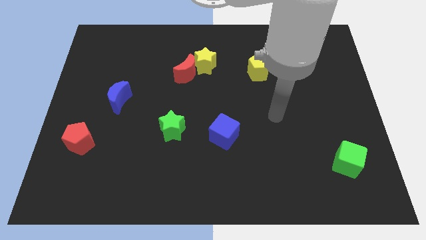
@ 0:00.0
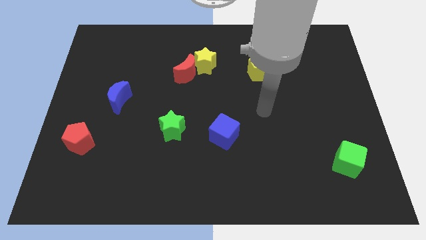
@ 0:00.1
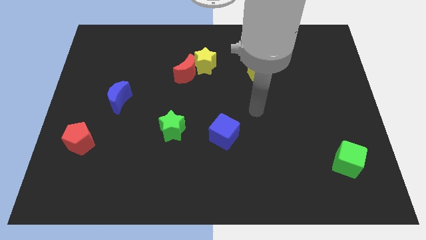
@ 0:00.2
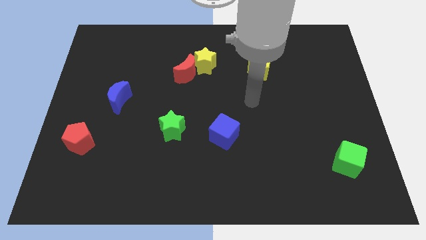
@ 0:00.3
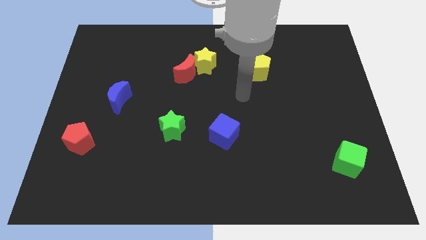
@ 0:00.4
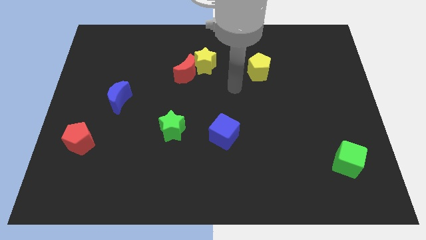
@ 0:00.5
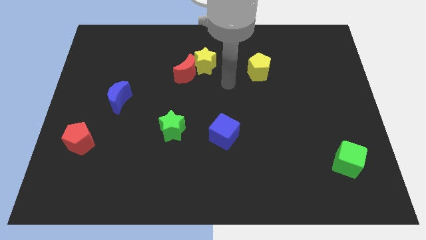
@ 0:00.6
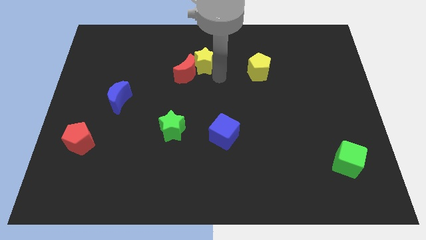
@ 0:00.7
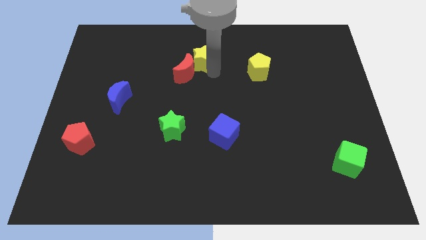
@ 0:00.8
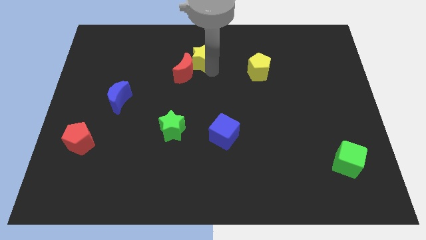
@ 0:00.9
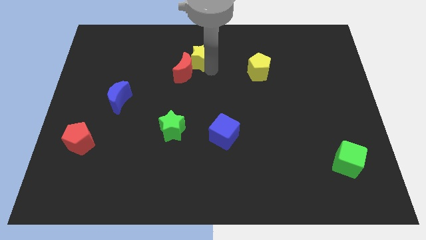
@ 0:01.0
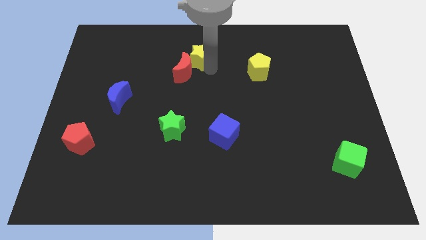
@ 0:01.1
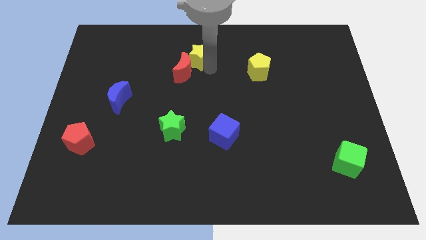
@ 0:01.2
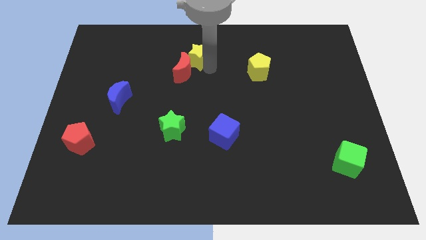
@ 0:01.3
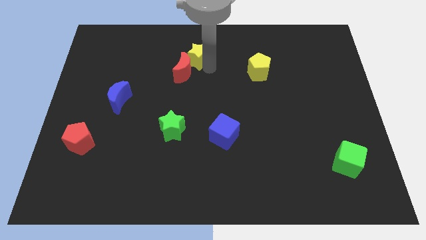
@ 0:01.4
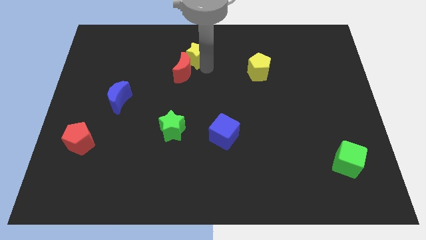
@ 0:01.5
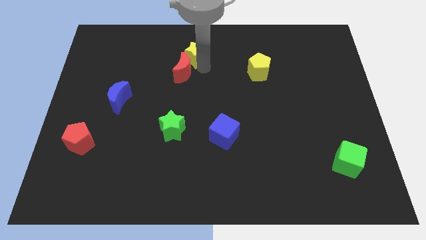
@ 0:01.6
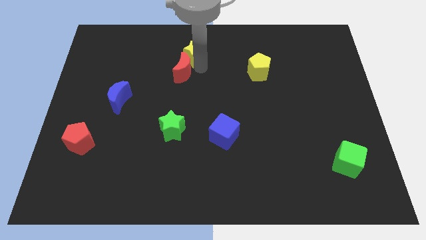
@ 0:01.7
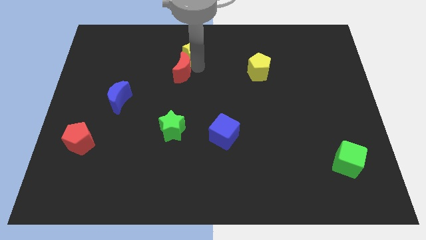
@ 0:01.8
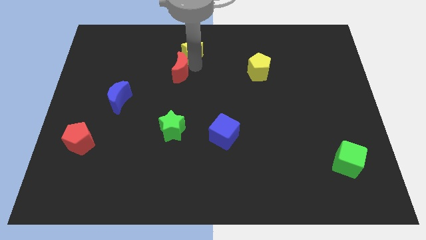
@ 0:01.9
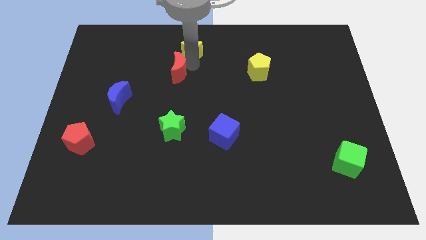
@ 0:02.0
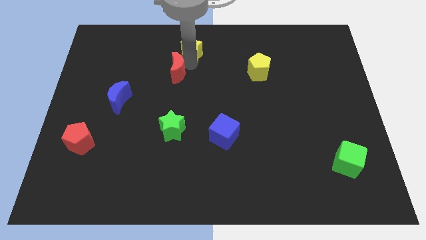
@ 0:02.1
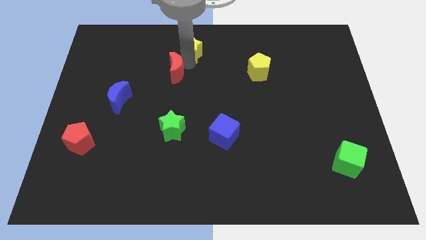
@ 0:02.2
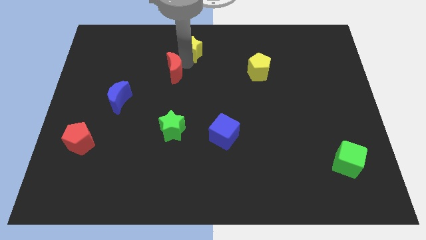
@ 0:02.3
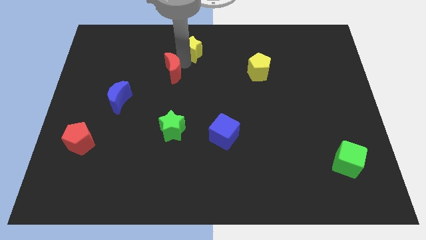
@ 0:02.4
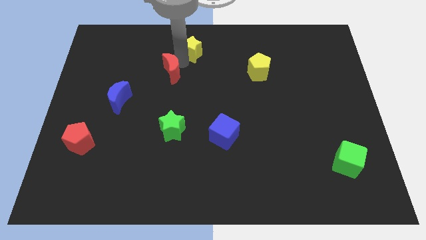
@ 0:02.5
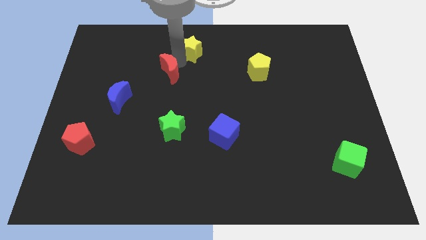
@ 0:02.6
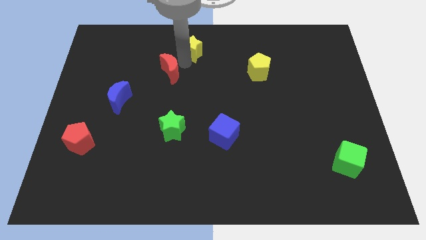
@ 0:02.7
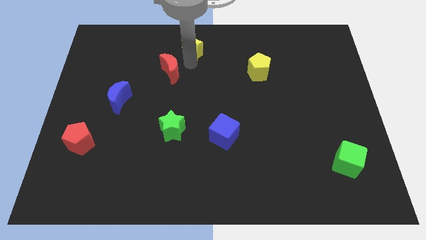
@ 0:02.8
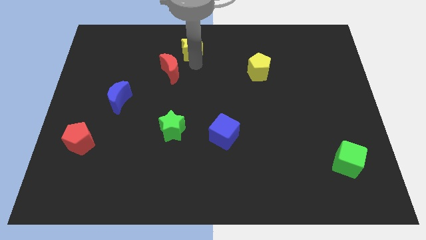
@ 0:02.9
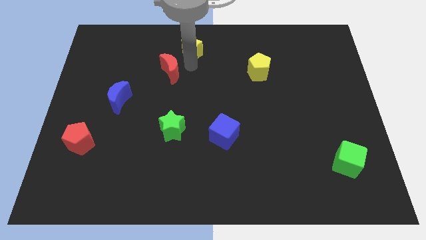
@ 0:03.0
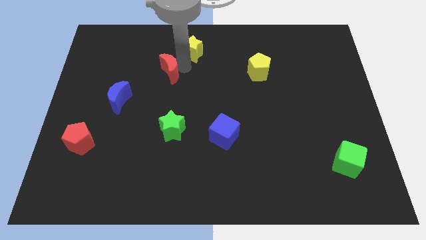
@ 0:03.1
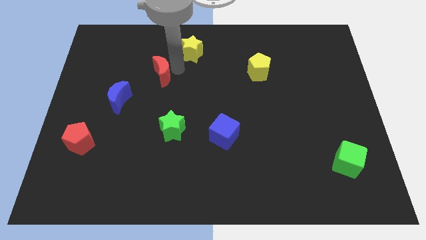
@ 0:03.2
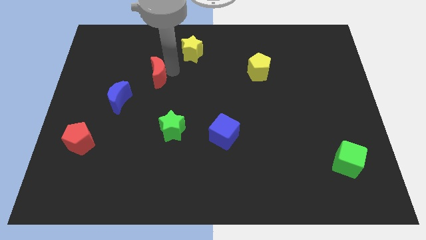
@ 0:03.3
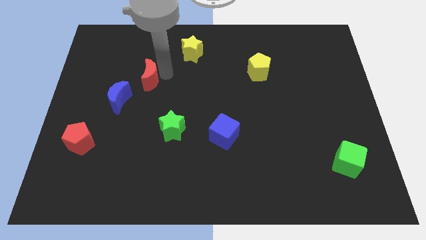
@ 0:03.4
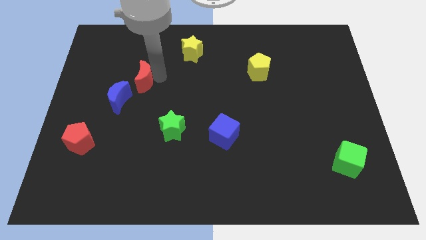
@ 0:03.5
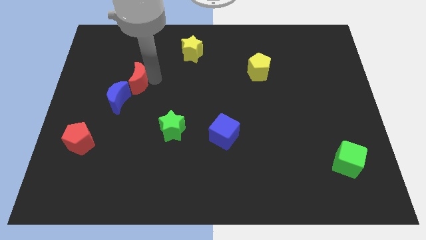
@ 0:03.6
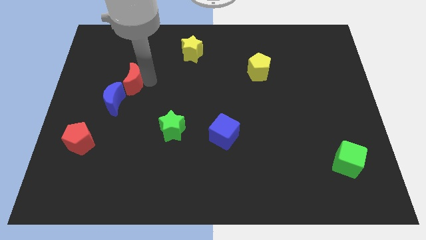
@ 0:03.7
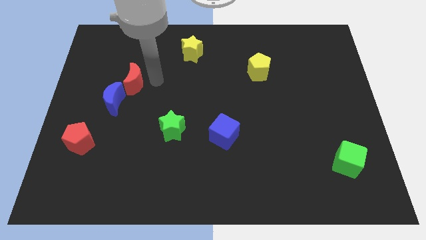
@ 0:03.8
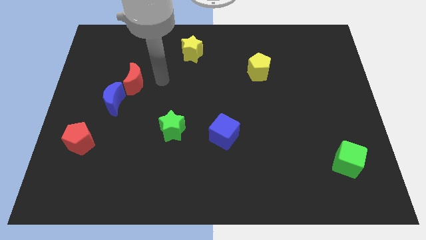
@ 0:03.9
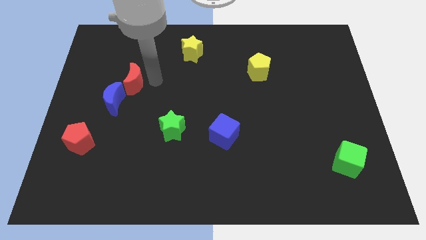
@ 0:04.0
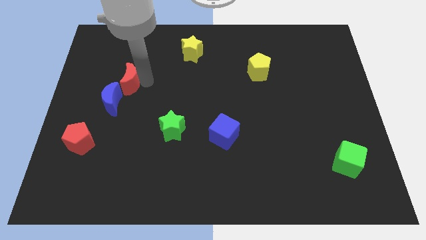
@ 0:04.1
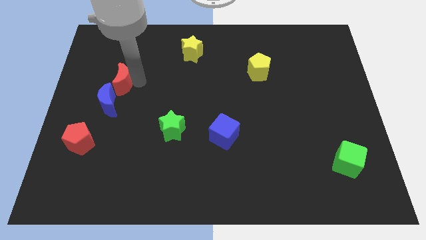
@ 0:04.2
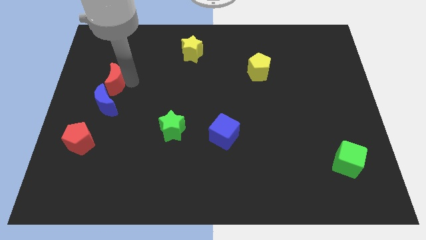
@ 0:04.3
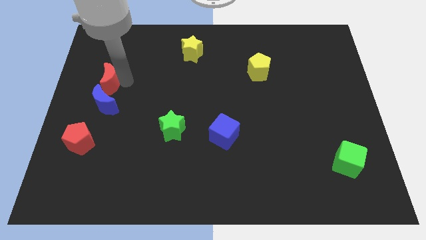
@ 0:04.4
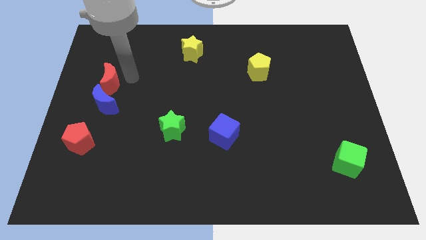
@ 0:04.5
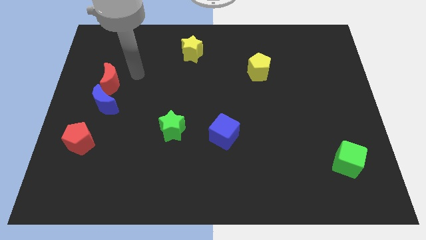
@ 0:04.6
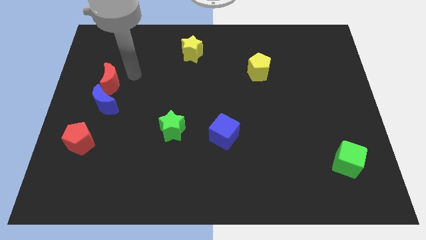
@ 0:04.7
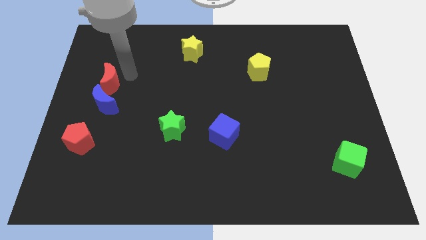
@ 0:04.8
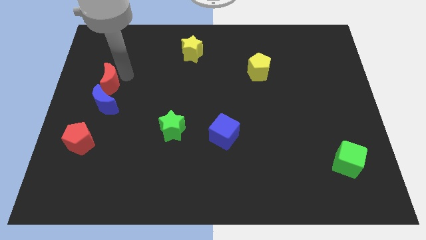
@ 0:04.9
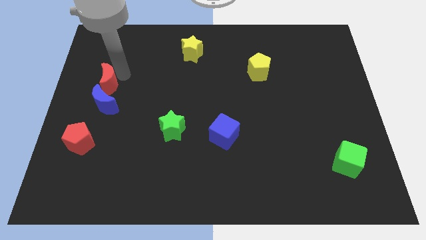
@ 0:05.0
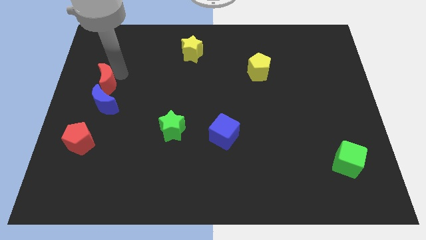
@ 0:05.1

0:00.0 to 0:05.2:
move the red moon to the left side of the board

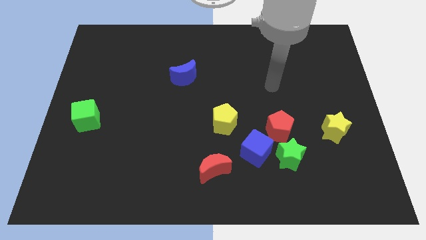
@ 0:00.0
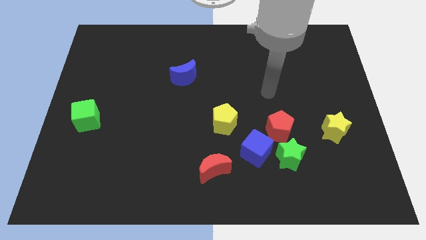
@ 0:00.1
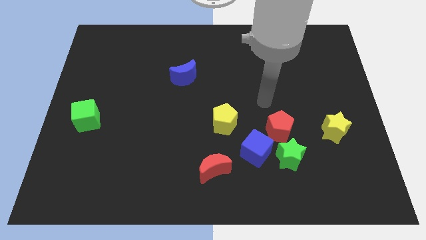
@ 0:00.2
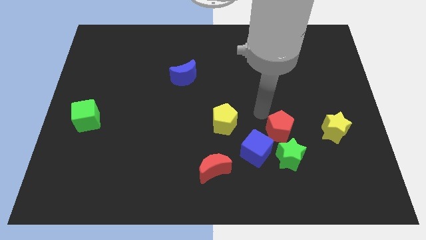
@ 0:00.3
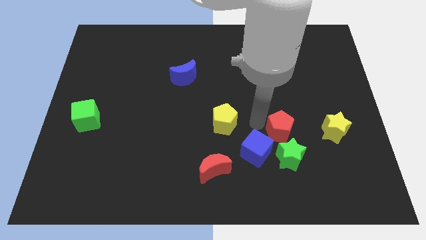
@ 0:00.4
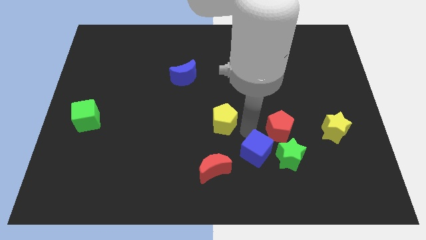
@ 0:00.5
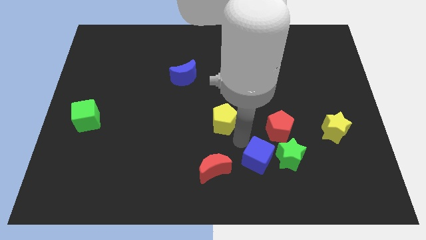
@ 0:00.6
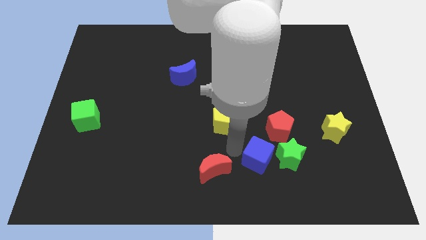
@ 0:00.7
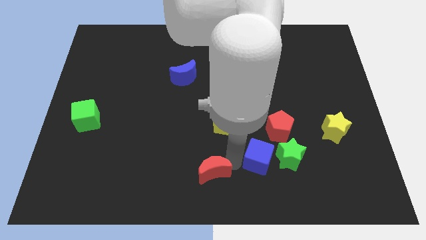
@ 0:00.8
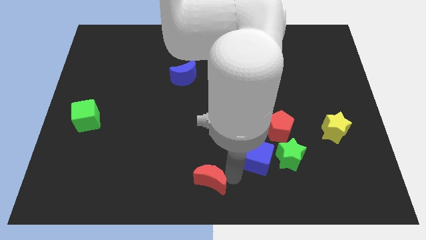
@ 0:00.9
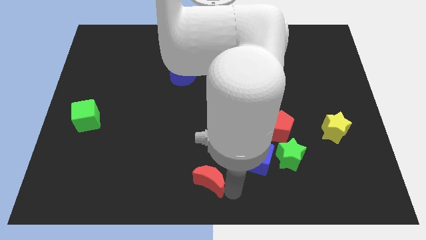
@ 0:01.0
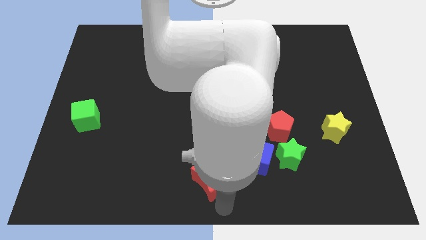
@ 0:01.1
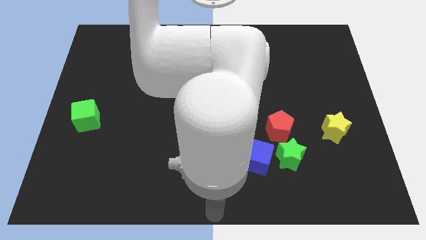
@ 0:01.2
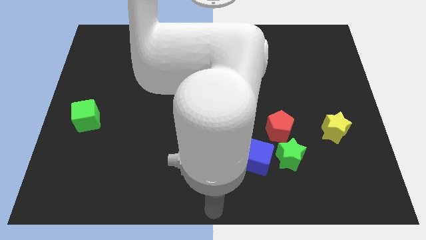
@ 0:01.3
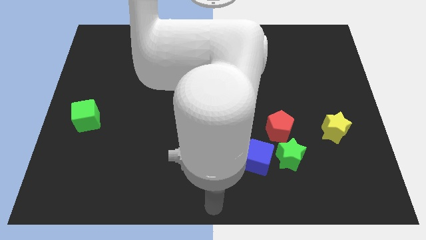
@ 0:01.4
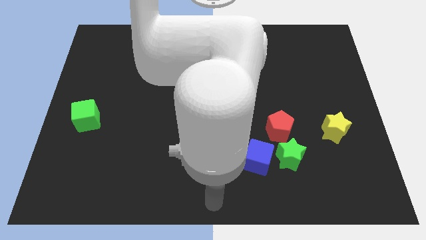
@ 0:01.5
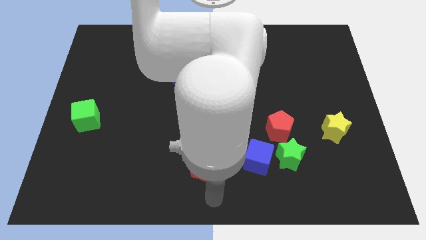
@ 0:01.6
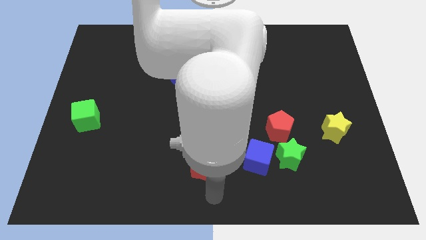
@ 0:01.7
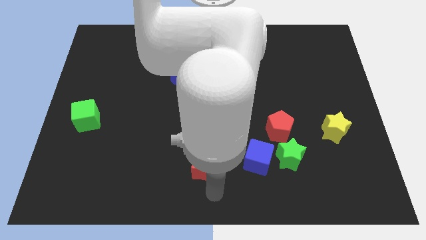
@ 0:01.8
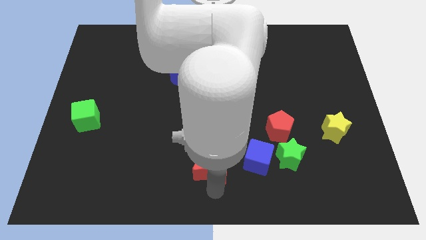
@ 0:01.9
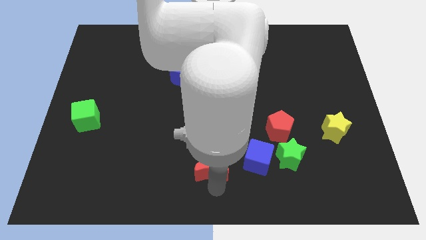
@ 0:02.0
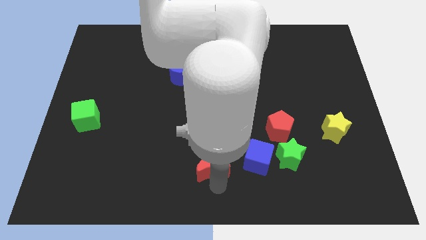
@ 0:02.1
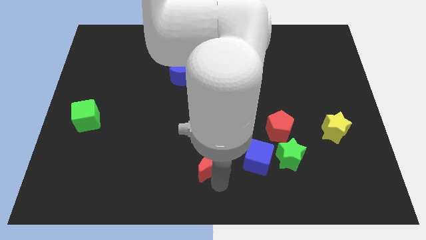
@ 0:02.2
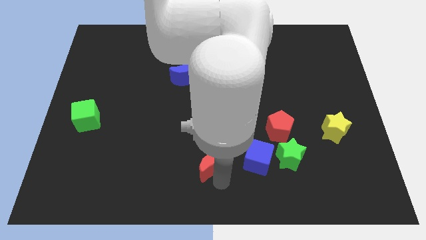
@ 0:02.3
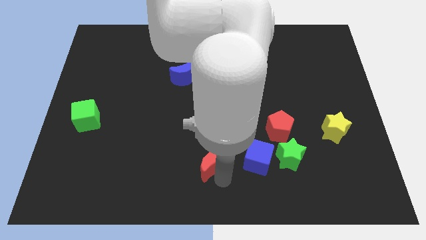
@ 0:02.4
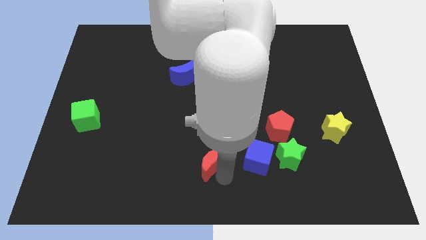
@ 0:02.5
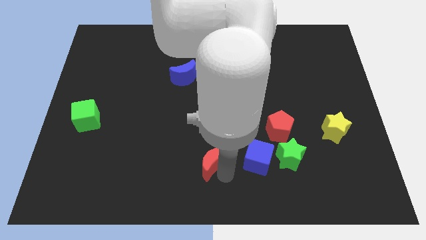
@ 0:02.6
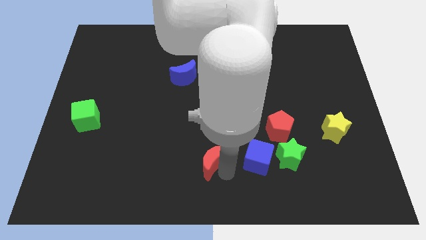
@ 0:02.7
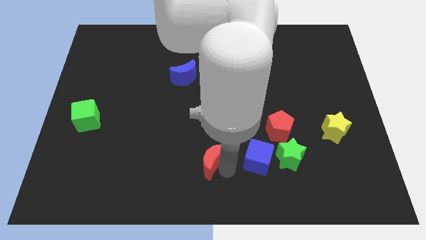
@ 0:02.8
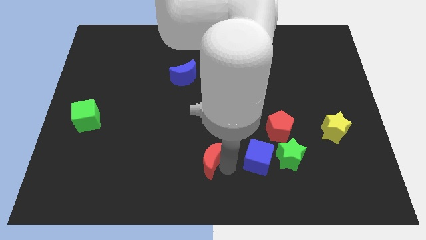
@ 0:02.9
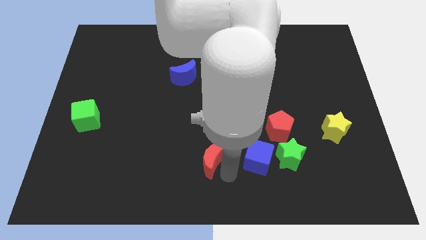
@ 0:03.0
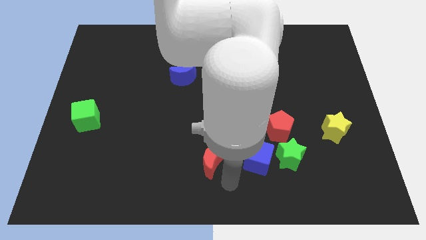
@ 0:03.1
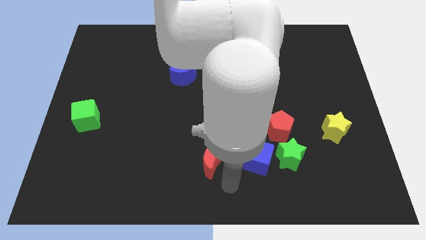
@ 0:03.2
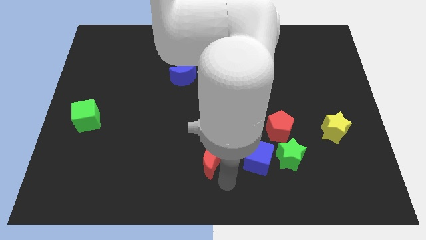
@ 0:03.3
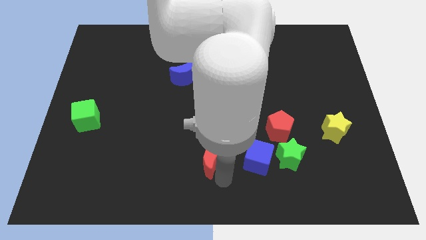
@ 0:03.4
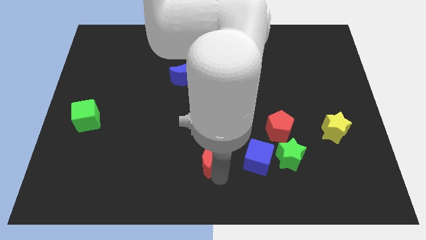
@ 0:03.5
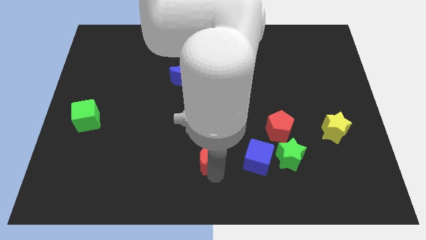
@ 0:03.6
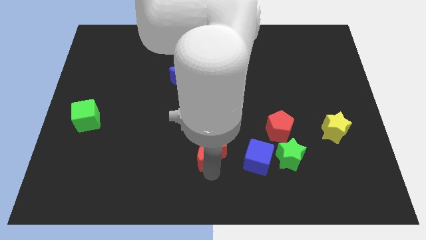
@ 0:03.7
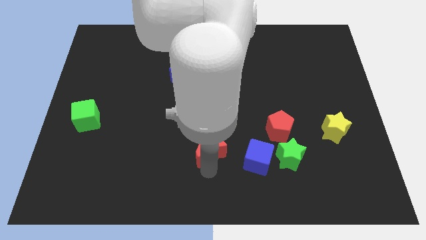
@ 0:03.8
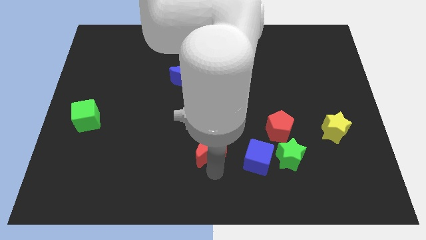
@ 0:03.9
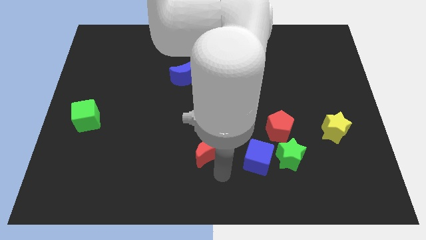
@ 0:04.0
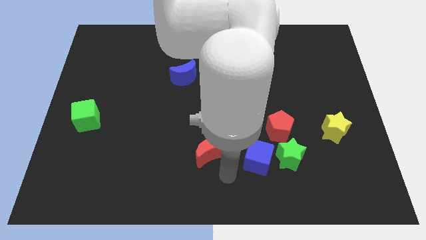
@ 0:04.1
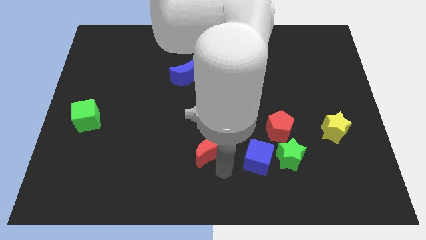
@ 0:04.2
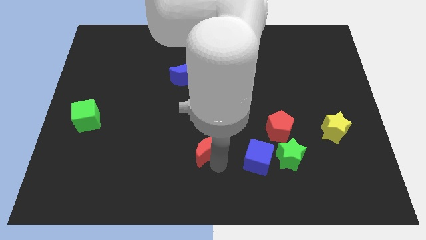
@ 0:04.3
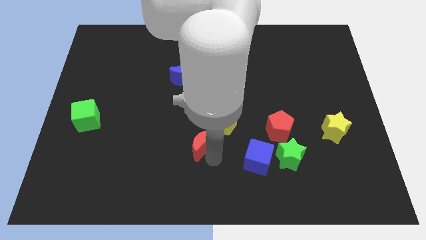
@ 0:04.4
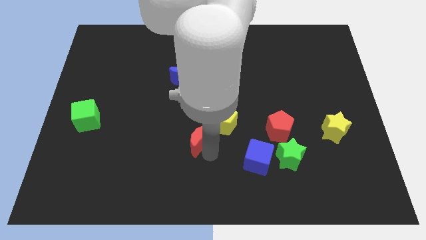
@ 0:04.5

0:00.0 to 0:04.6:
move the red moon to the center
